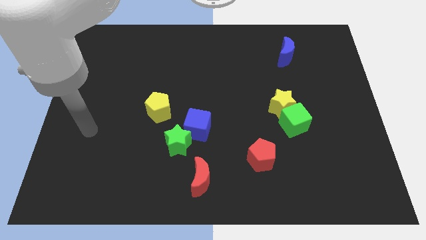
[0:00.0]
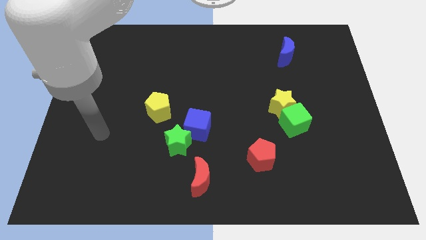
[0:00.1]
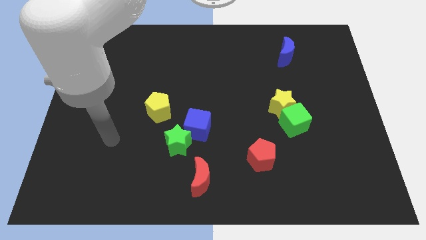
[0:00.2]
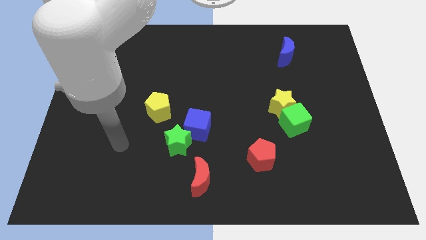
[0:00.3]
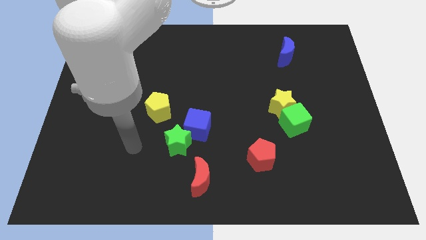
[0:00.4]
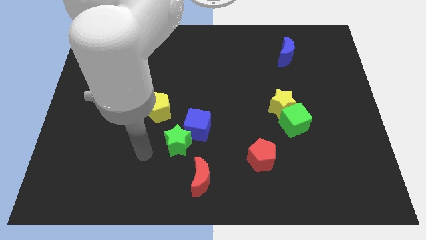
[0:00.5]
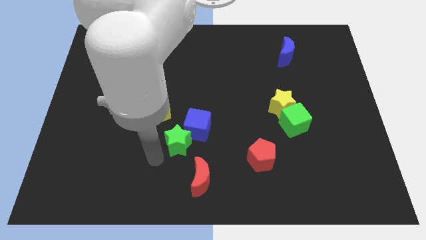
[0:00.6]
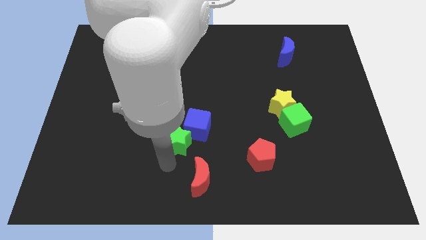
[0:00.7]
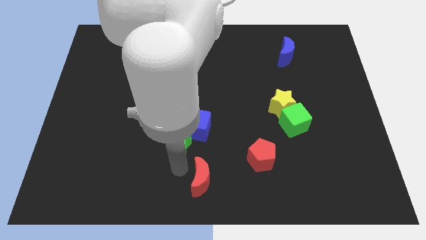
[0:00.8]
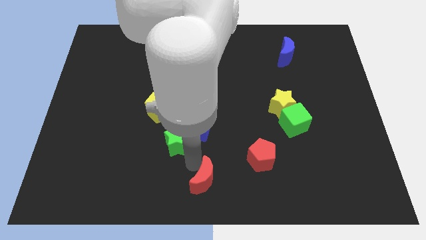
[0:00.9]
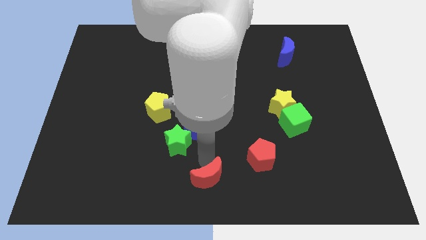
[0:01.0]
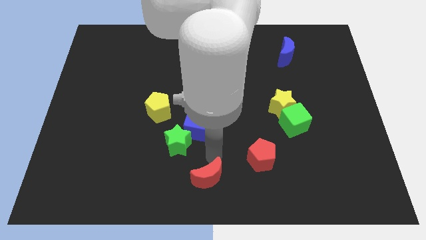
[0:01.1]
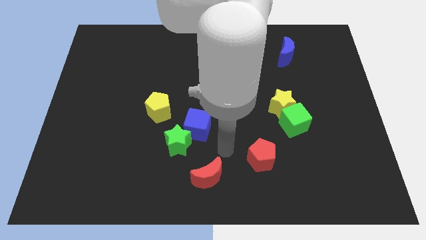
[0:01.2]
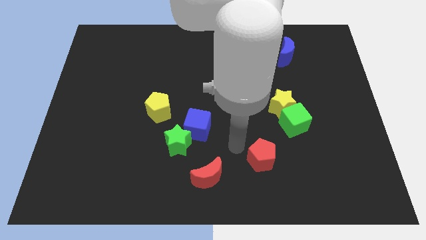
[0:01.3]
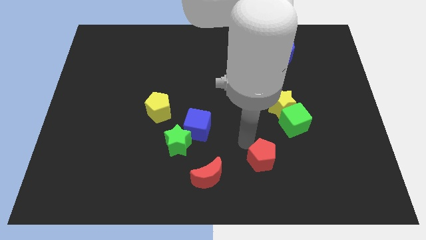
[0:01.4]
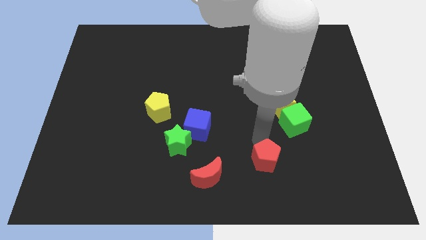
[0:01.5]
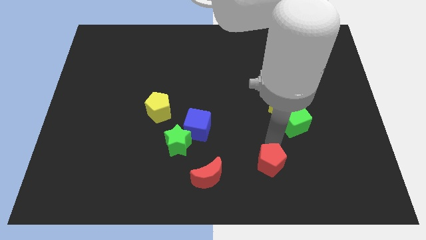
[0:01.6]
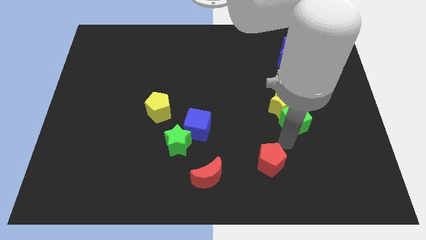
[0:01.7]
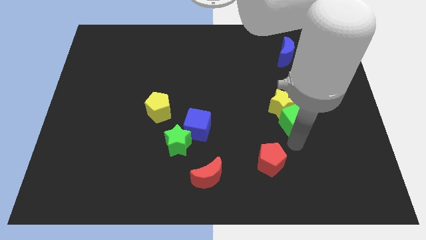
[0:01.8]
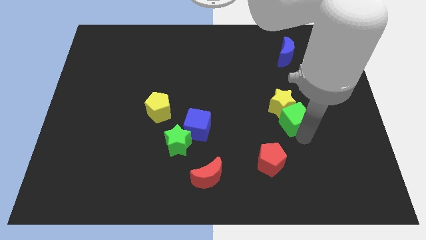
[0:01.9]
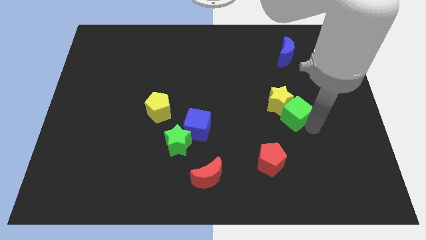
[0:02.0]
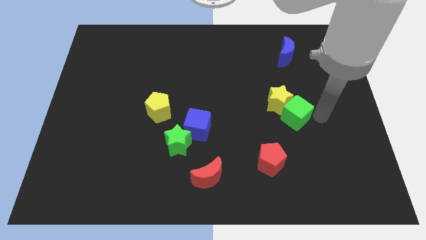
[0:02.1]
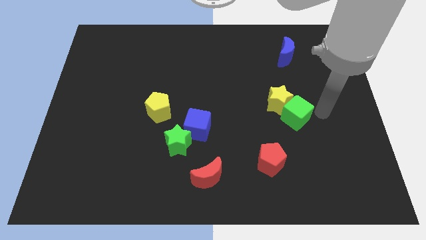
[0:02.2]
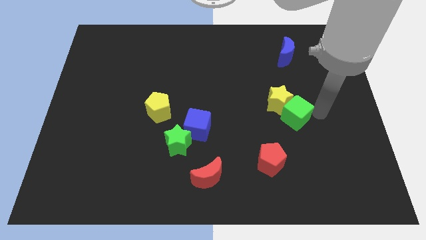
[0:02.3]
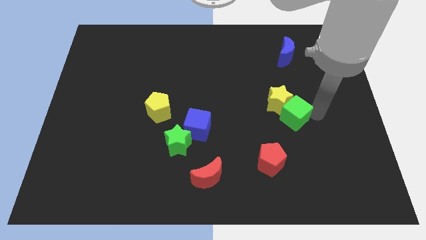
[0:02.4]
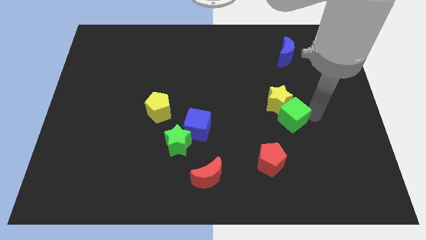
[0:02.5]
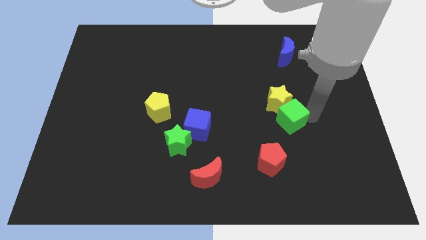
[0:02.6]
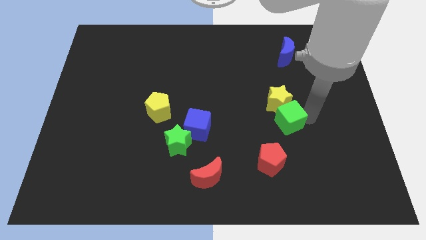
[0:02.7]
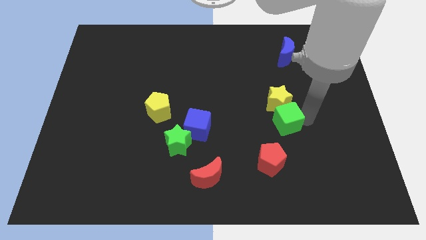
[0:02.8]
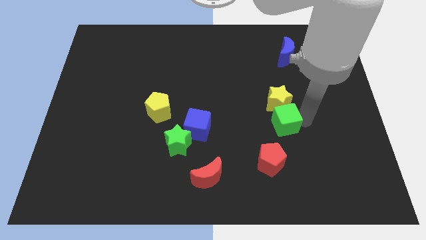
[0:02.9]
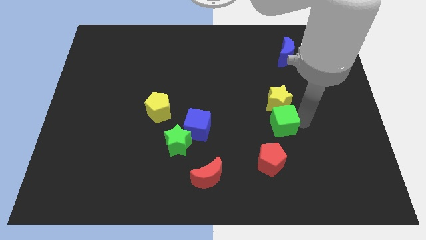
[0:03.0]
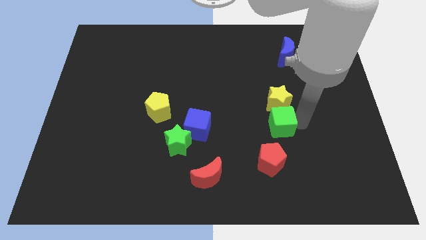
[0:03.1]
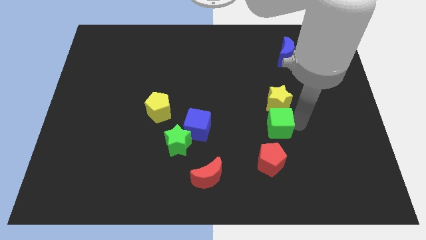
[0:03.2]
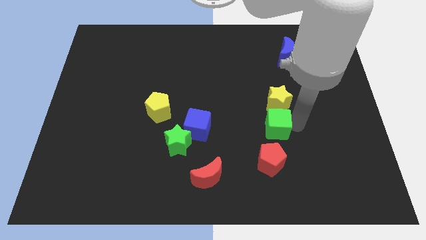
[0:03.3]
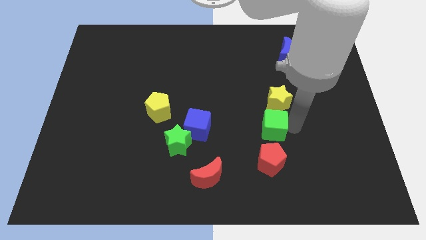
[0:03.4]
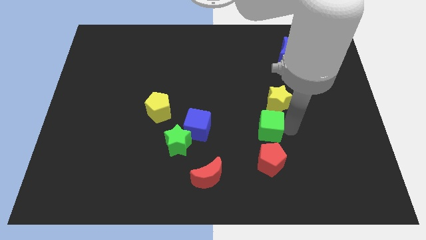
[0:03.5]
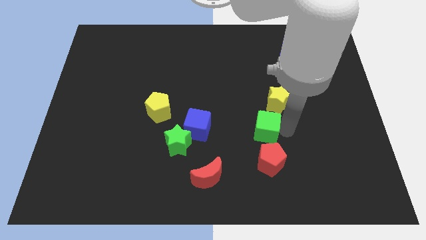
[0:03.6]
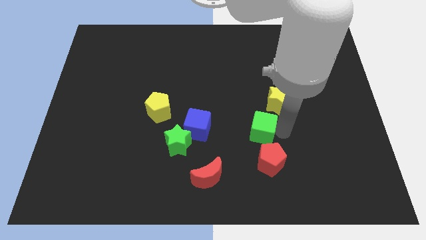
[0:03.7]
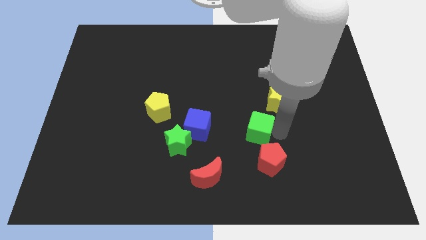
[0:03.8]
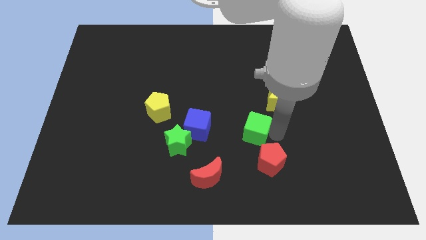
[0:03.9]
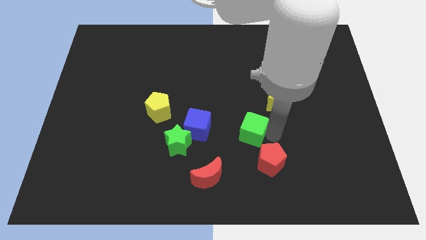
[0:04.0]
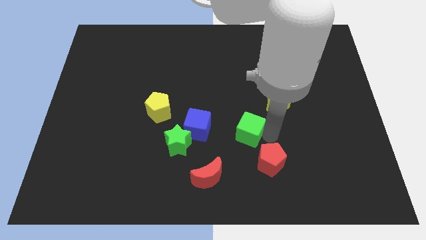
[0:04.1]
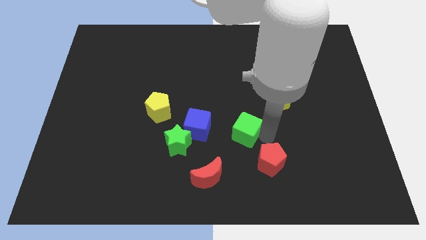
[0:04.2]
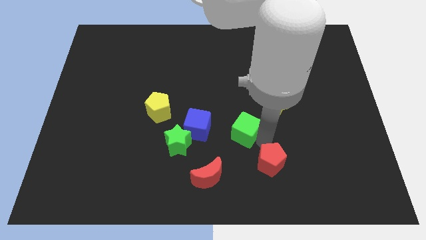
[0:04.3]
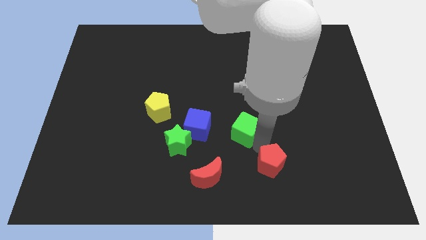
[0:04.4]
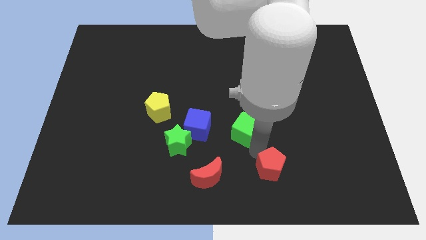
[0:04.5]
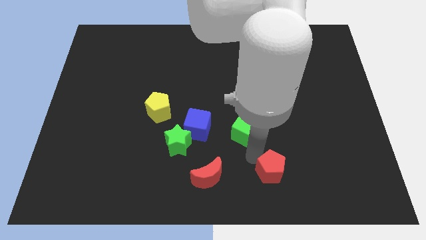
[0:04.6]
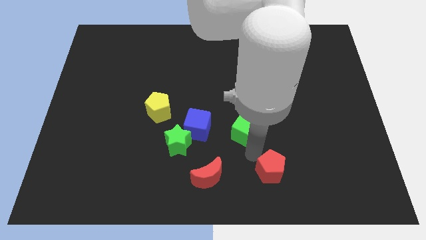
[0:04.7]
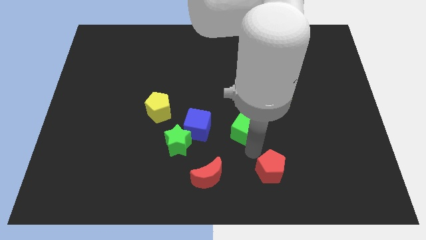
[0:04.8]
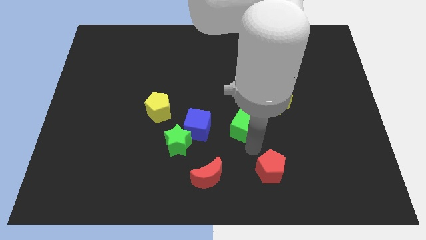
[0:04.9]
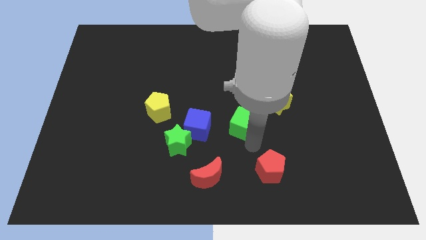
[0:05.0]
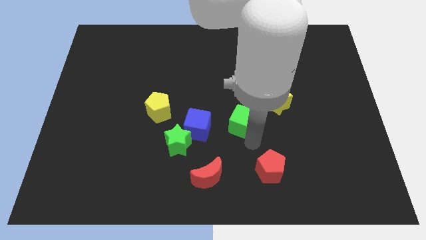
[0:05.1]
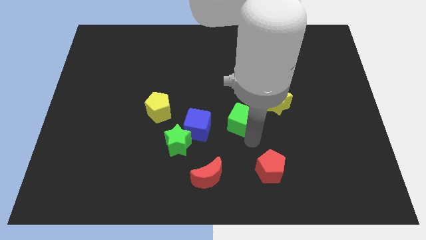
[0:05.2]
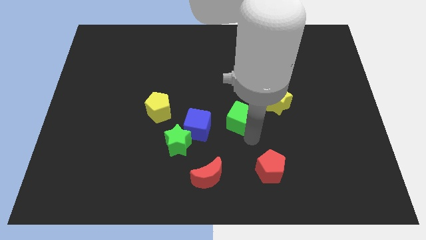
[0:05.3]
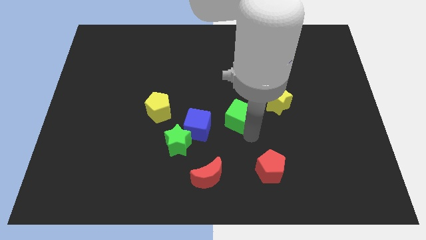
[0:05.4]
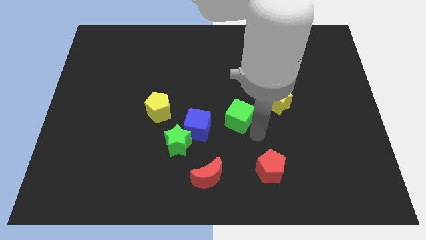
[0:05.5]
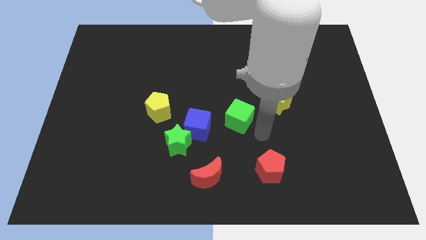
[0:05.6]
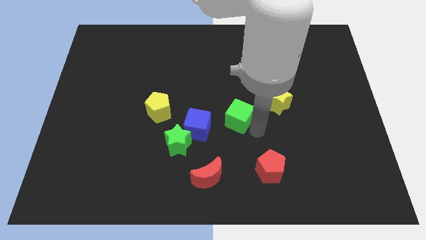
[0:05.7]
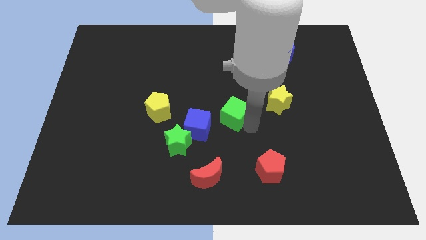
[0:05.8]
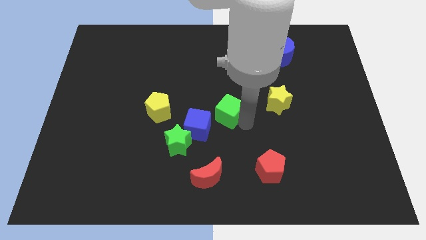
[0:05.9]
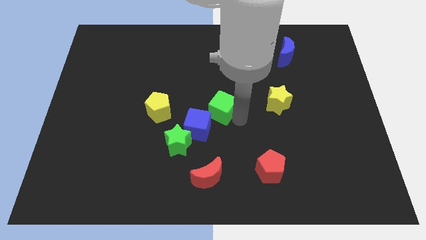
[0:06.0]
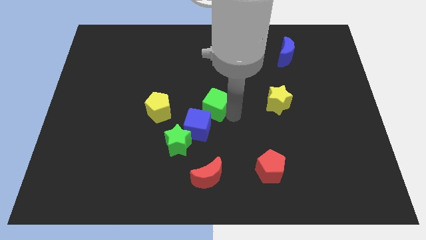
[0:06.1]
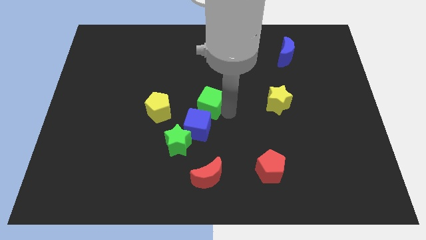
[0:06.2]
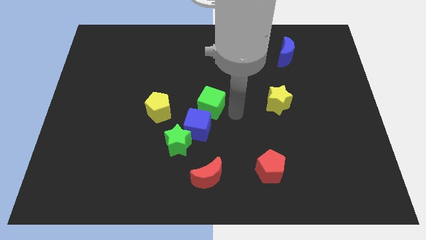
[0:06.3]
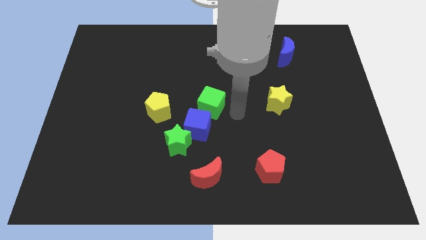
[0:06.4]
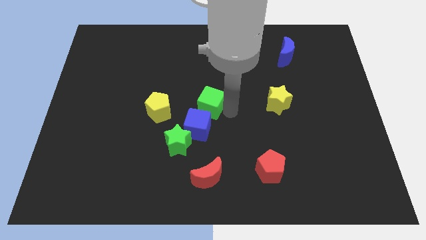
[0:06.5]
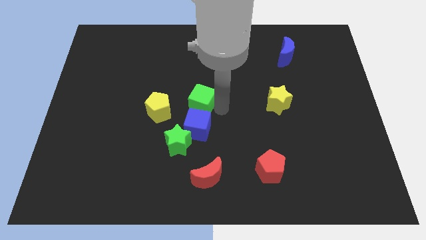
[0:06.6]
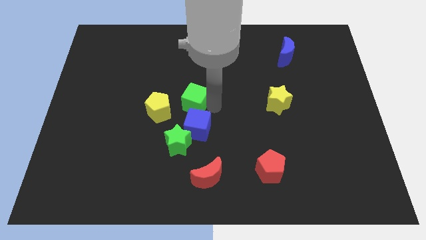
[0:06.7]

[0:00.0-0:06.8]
put the green cube to the top left side of the blue cube

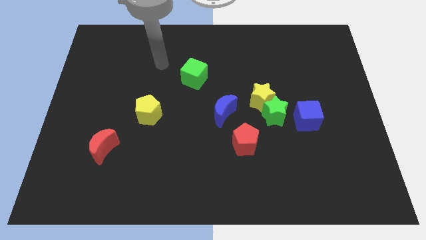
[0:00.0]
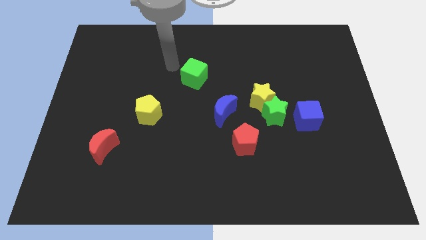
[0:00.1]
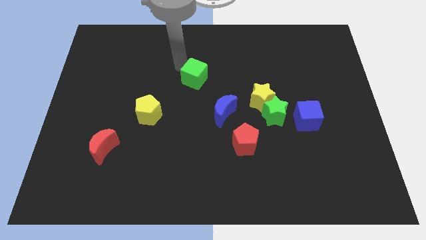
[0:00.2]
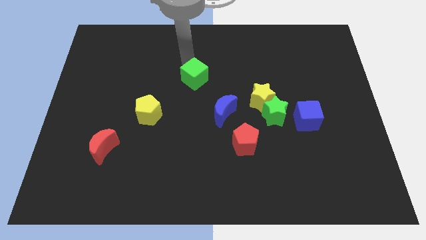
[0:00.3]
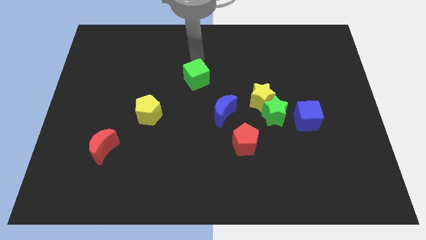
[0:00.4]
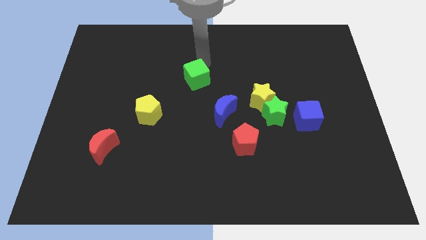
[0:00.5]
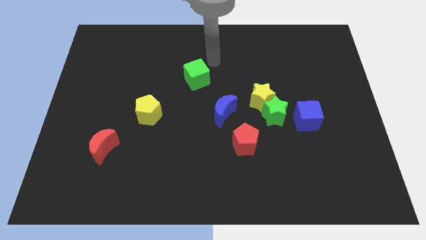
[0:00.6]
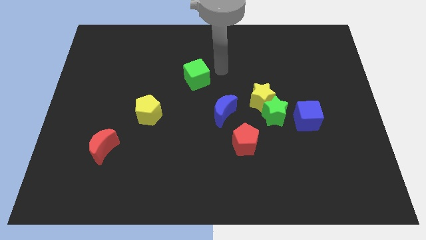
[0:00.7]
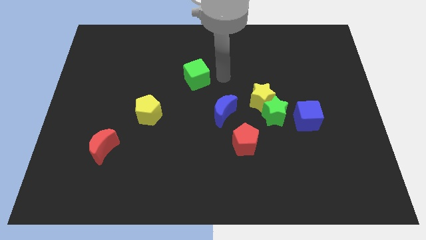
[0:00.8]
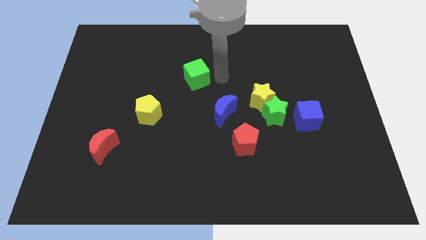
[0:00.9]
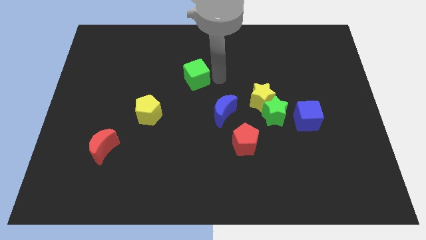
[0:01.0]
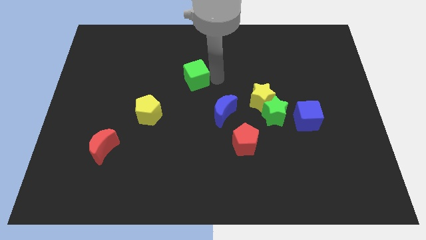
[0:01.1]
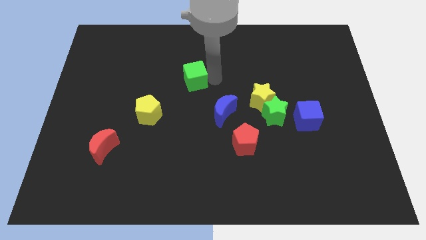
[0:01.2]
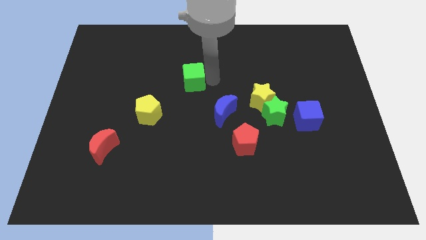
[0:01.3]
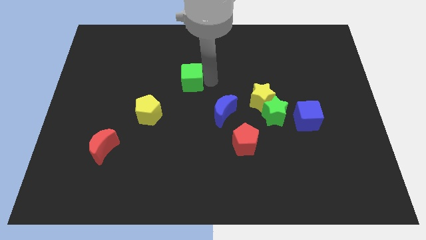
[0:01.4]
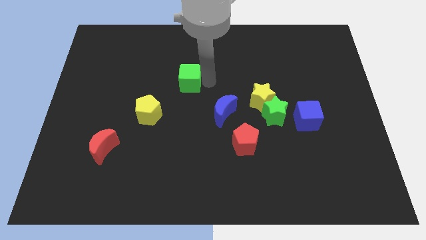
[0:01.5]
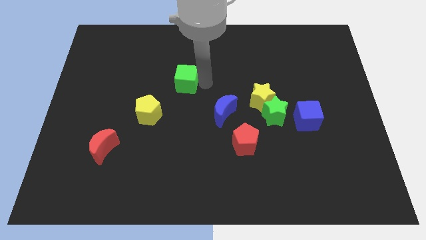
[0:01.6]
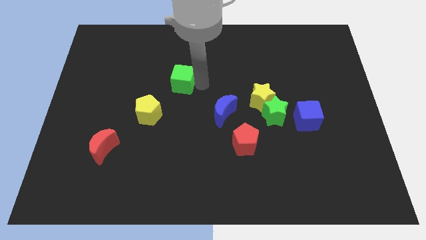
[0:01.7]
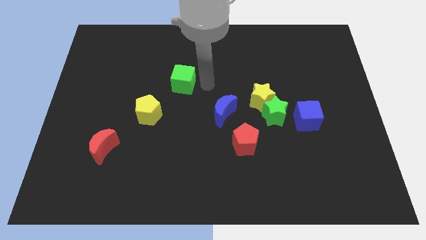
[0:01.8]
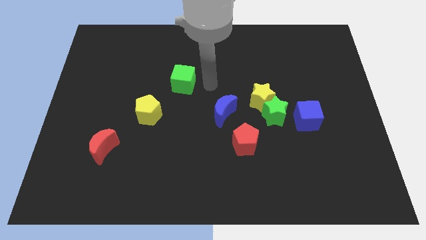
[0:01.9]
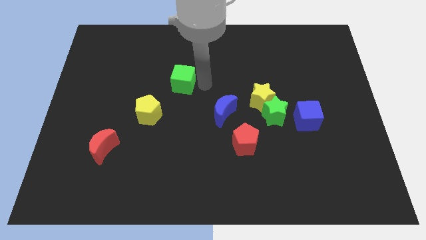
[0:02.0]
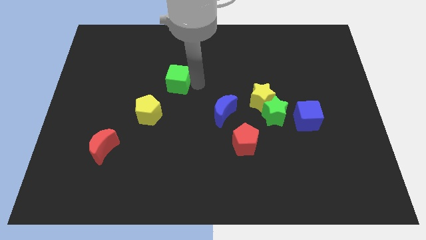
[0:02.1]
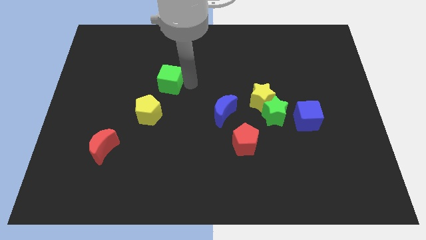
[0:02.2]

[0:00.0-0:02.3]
slide the green cube to the top side of the yellow pentagon
